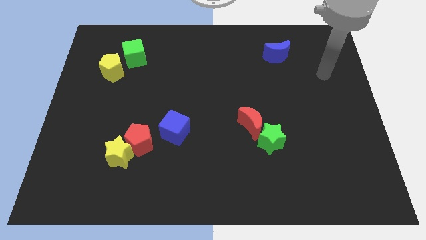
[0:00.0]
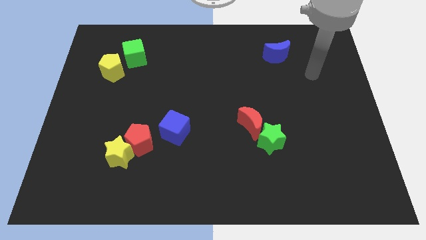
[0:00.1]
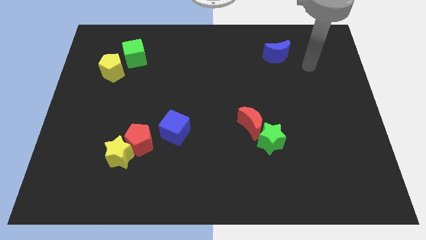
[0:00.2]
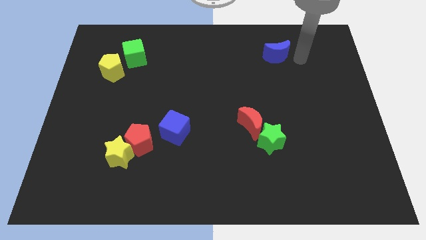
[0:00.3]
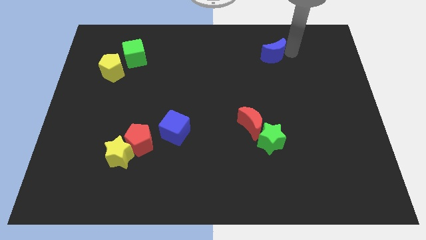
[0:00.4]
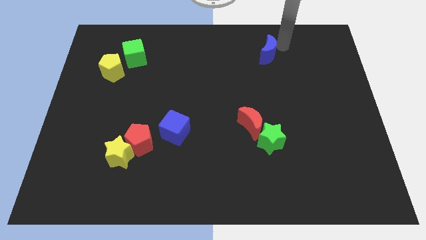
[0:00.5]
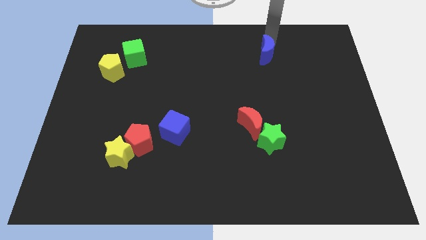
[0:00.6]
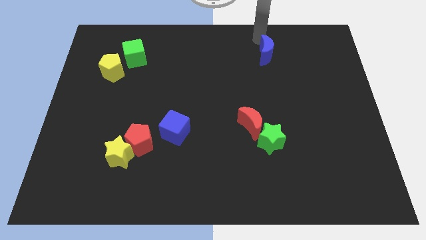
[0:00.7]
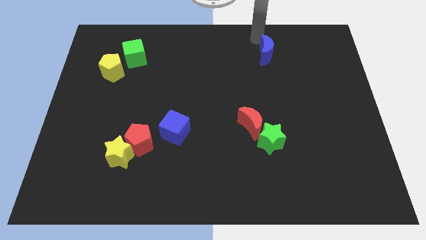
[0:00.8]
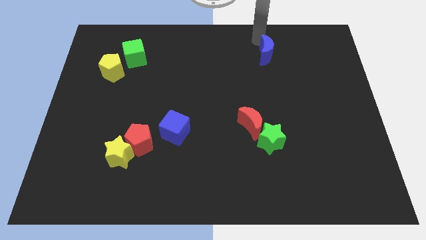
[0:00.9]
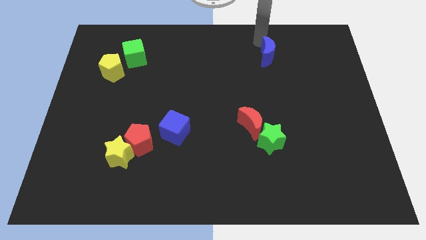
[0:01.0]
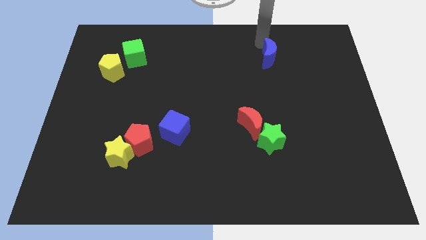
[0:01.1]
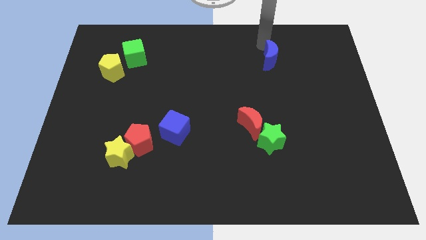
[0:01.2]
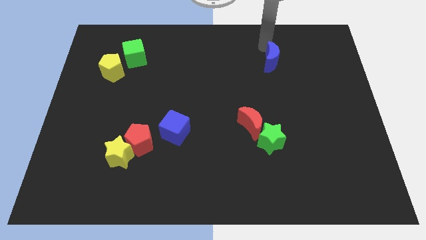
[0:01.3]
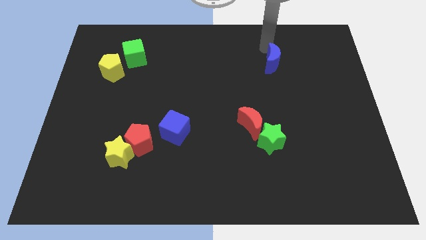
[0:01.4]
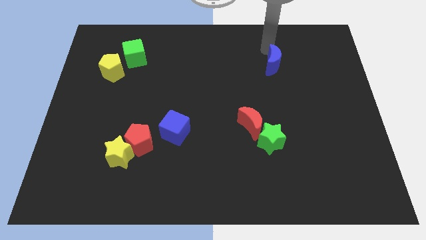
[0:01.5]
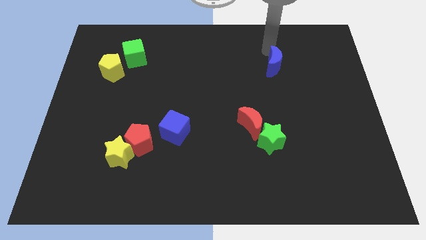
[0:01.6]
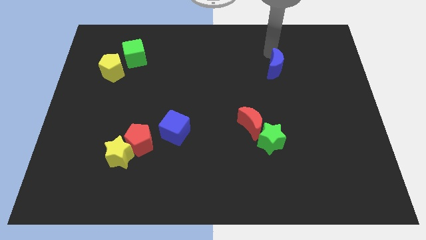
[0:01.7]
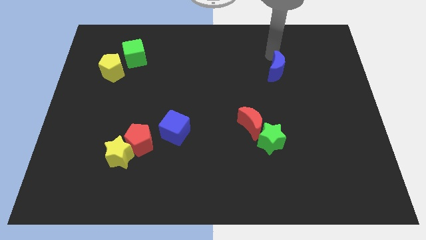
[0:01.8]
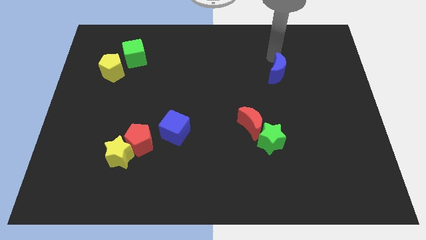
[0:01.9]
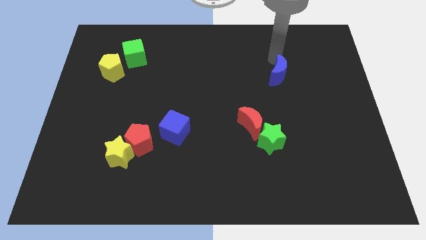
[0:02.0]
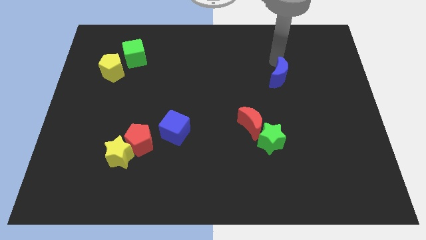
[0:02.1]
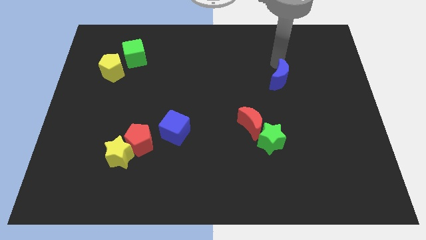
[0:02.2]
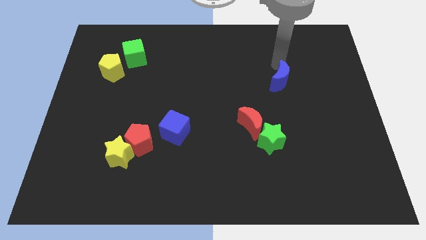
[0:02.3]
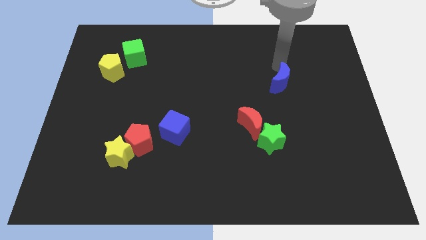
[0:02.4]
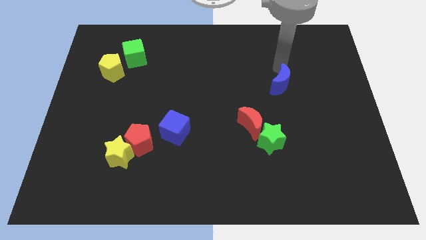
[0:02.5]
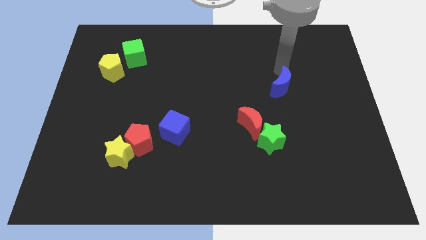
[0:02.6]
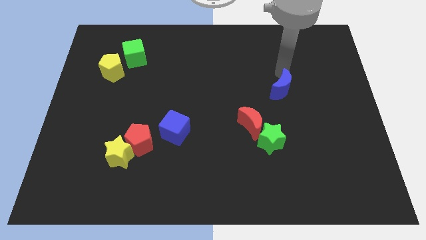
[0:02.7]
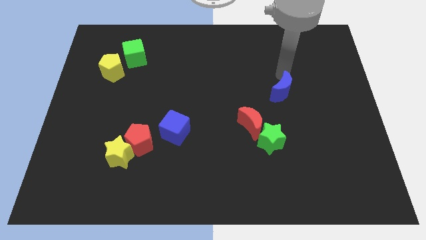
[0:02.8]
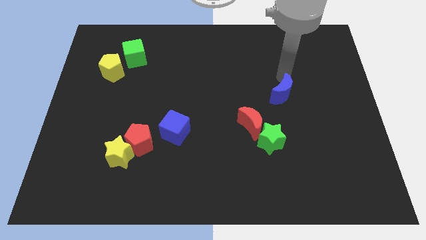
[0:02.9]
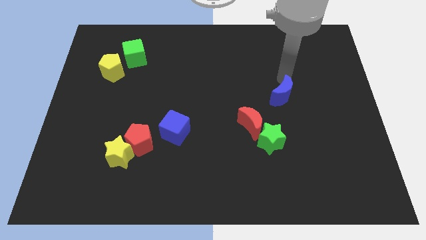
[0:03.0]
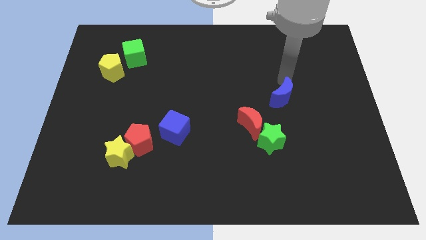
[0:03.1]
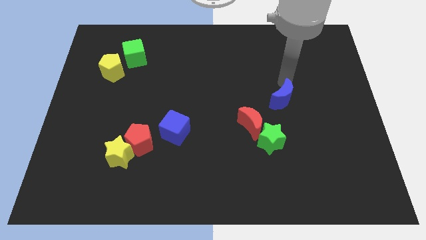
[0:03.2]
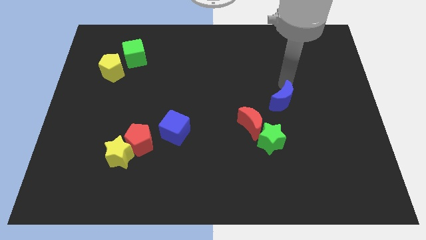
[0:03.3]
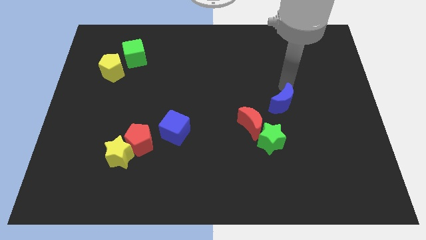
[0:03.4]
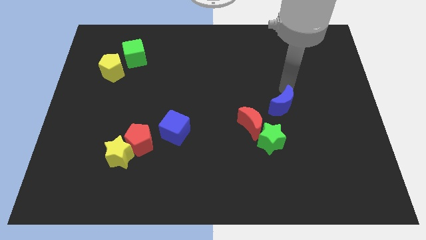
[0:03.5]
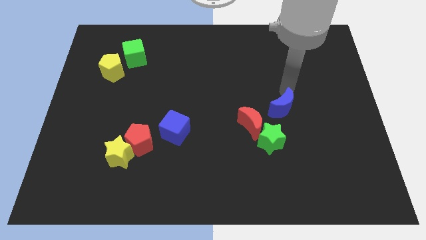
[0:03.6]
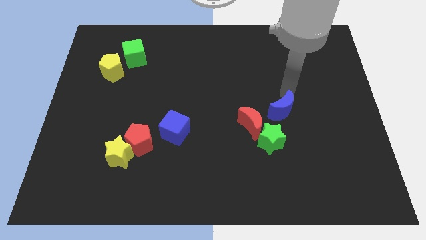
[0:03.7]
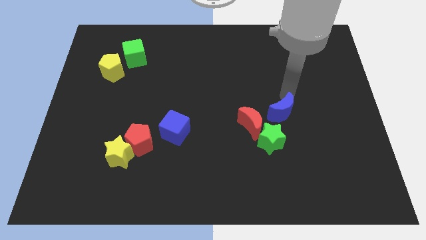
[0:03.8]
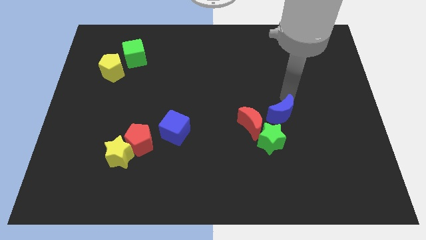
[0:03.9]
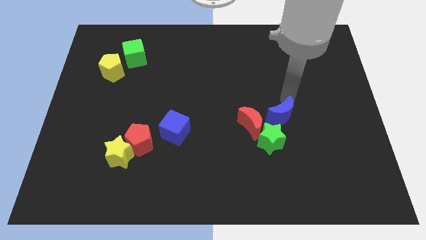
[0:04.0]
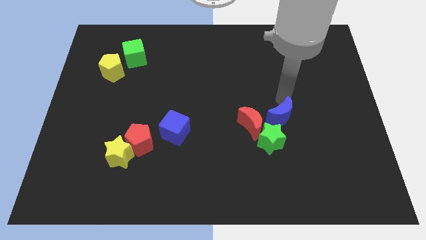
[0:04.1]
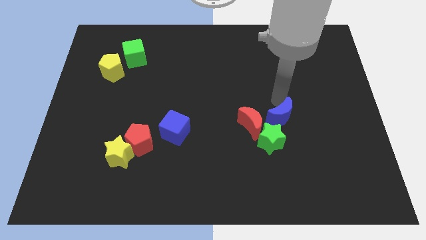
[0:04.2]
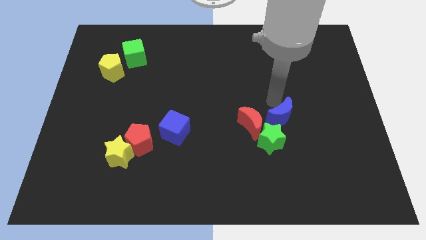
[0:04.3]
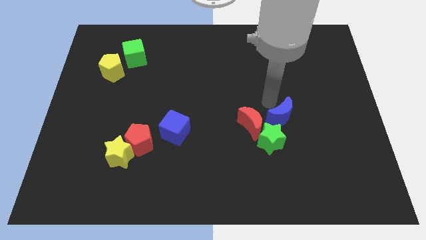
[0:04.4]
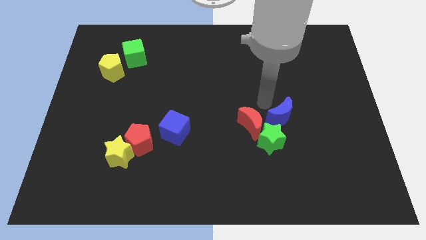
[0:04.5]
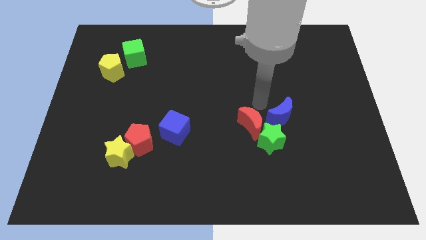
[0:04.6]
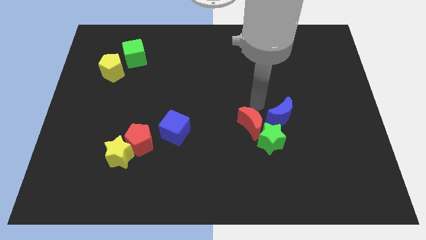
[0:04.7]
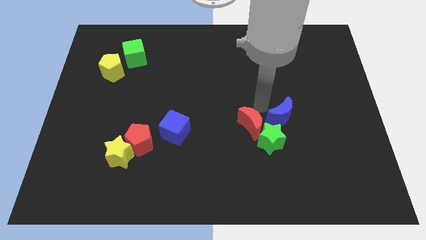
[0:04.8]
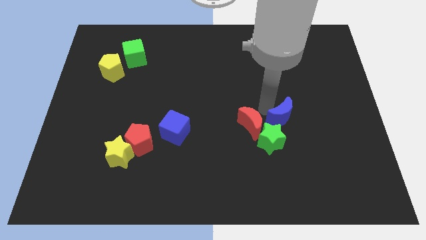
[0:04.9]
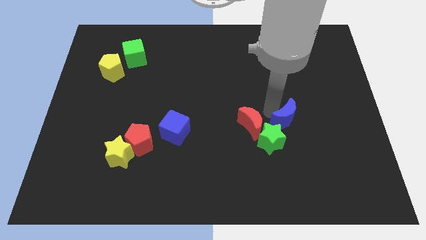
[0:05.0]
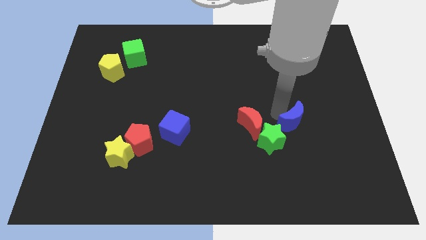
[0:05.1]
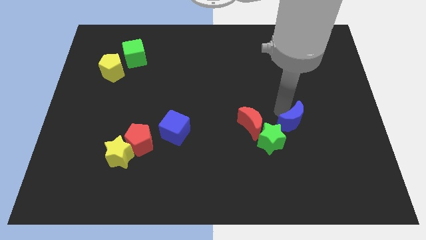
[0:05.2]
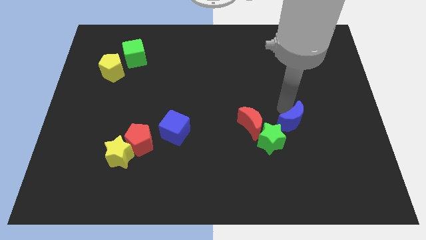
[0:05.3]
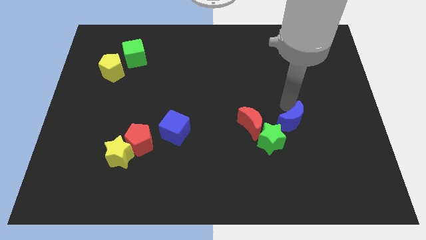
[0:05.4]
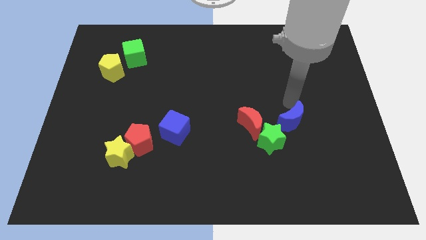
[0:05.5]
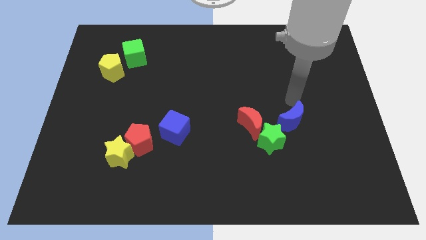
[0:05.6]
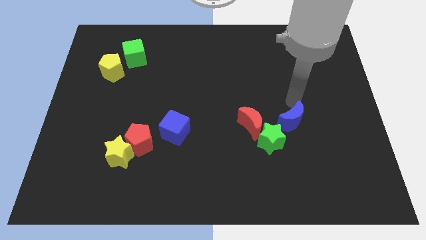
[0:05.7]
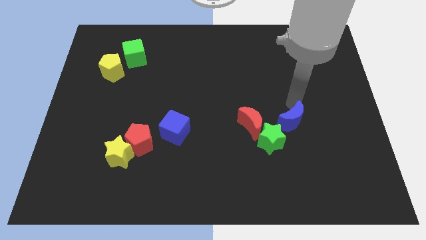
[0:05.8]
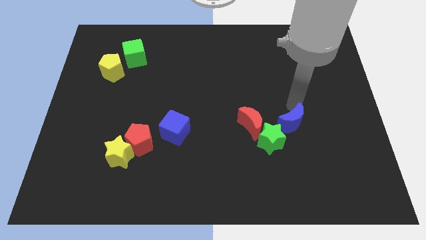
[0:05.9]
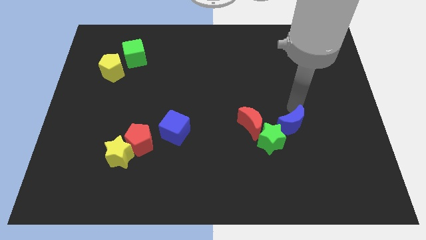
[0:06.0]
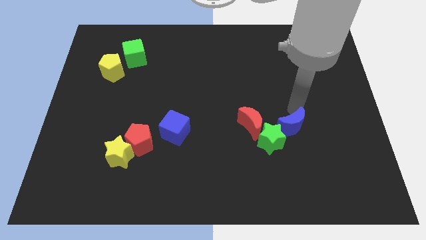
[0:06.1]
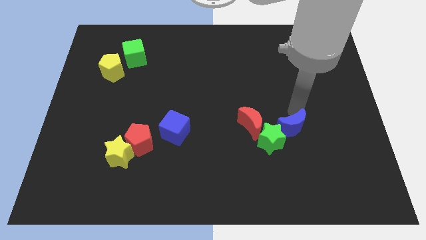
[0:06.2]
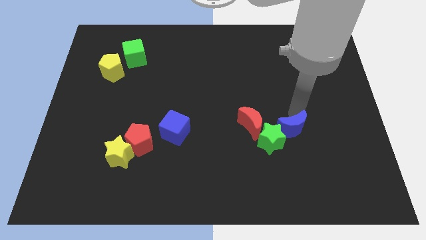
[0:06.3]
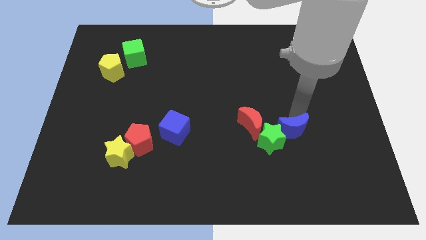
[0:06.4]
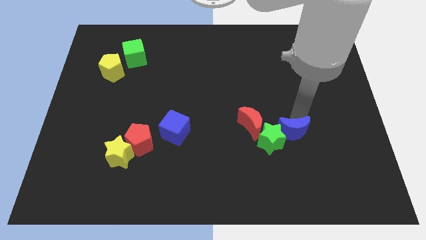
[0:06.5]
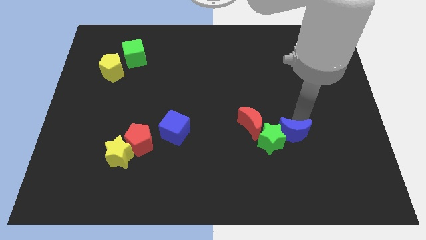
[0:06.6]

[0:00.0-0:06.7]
put the blue moon to the bottom right of the red moon
